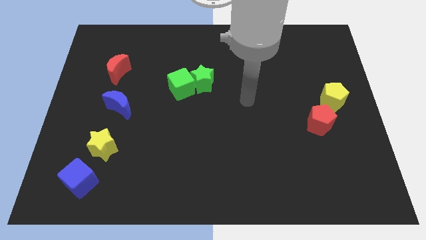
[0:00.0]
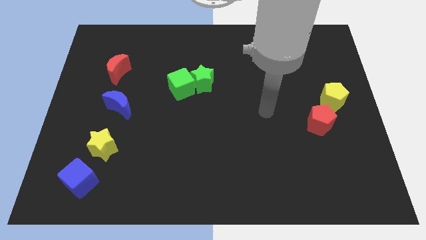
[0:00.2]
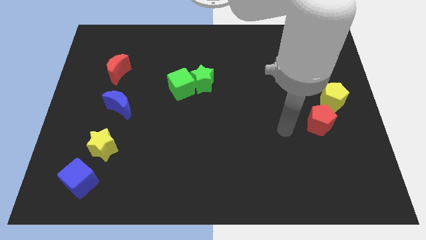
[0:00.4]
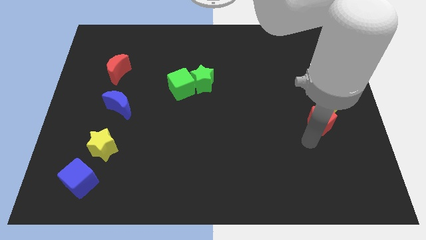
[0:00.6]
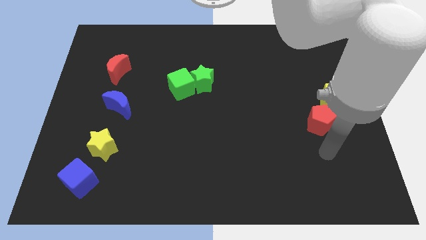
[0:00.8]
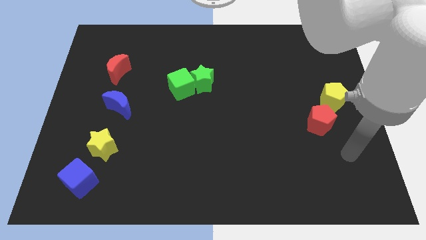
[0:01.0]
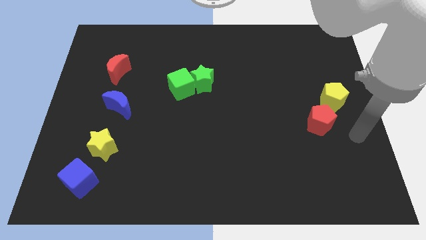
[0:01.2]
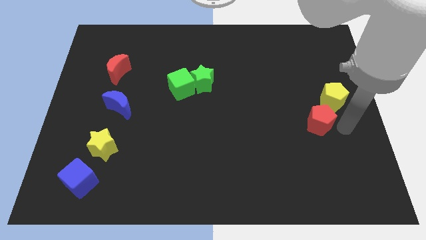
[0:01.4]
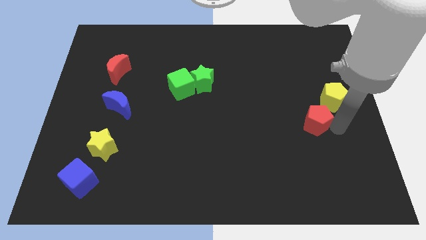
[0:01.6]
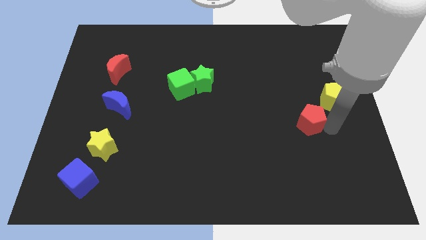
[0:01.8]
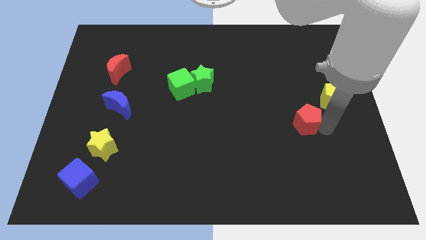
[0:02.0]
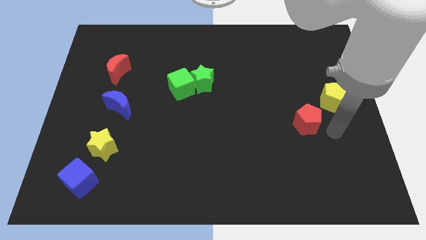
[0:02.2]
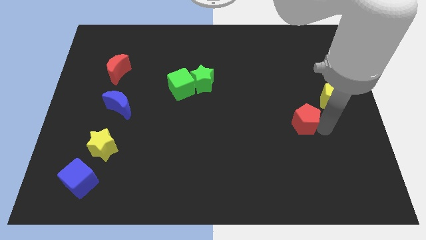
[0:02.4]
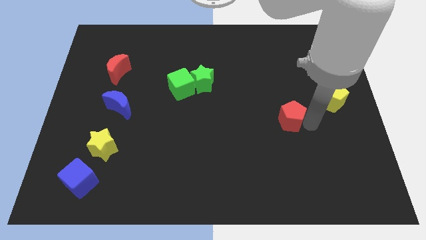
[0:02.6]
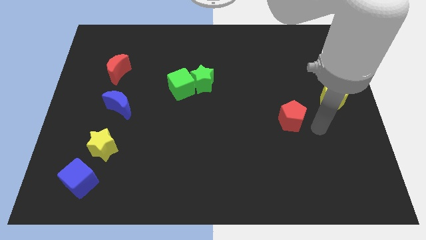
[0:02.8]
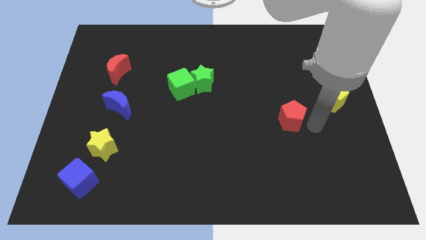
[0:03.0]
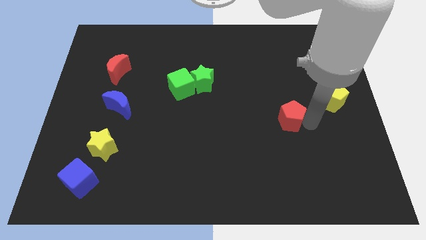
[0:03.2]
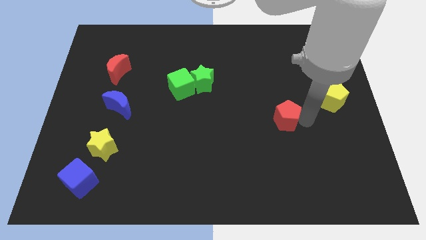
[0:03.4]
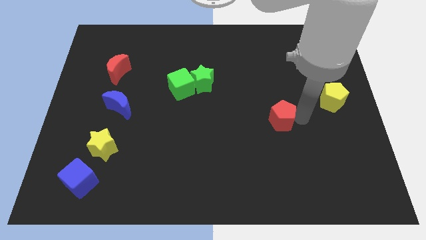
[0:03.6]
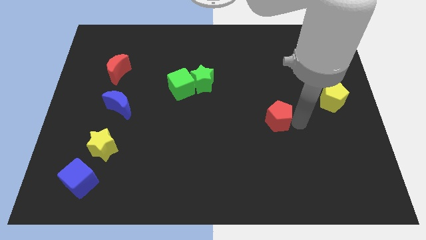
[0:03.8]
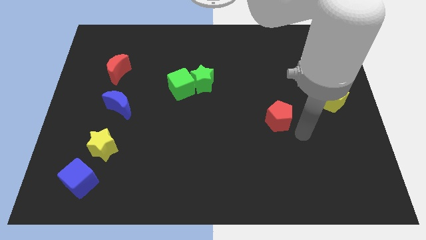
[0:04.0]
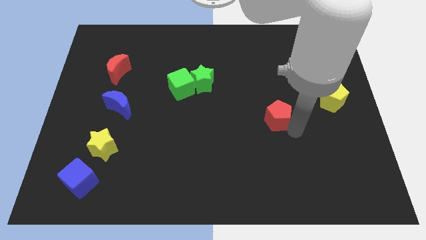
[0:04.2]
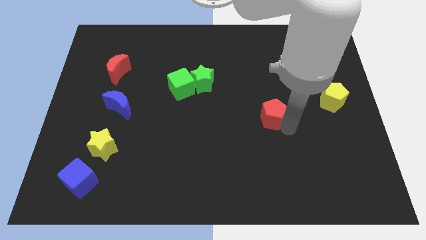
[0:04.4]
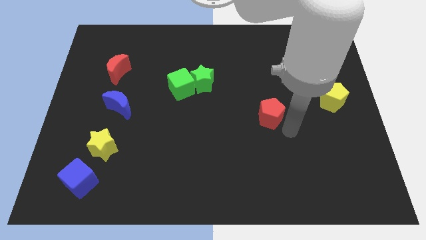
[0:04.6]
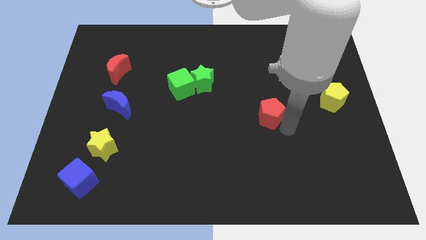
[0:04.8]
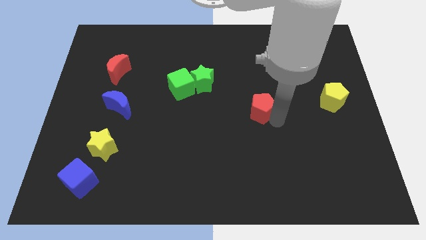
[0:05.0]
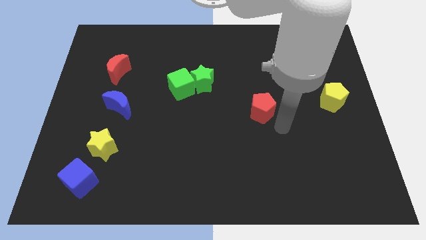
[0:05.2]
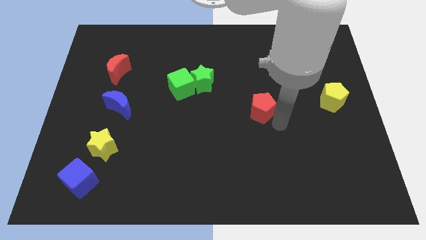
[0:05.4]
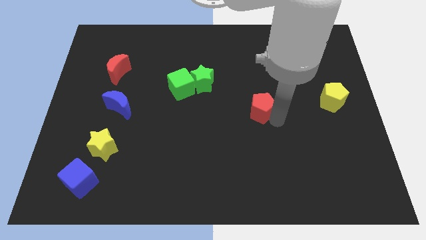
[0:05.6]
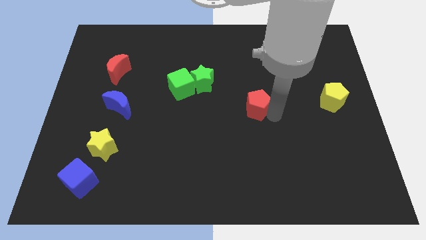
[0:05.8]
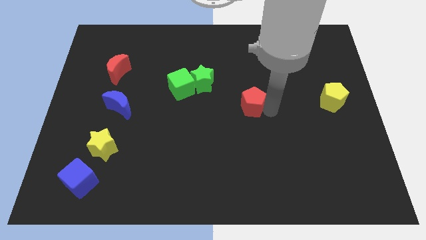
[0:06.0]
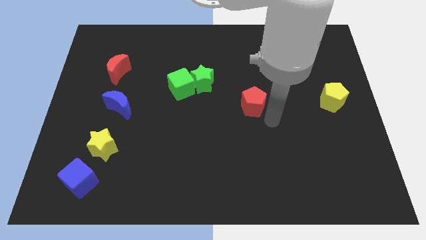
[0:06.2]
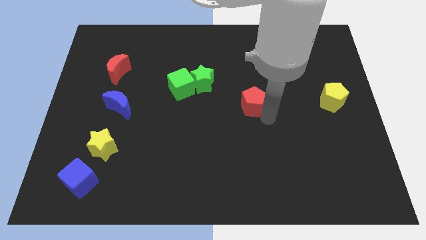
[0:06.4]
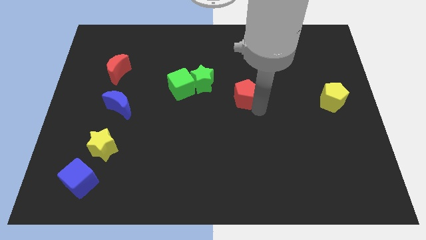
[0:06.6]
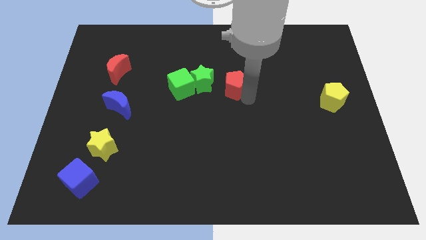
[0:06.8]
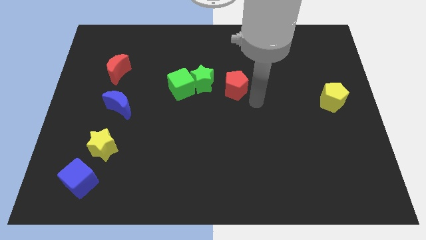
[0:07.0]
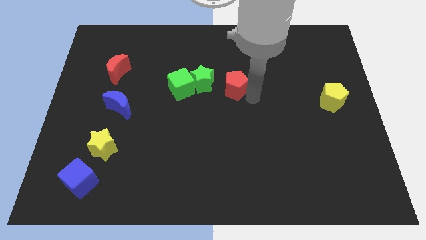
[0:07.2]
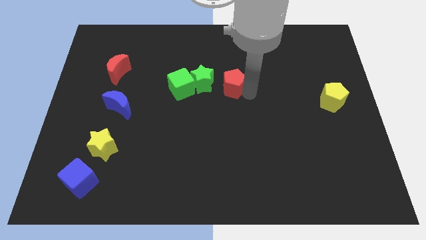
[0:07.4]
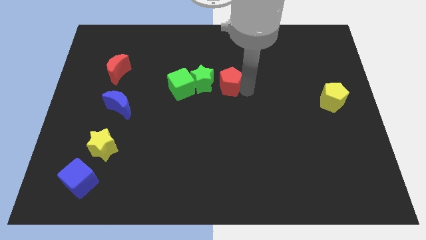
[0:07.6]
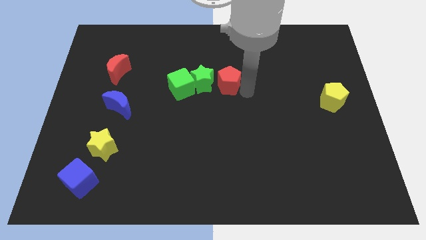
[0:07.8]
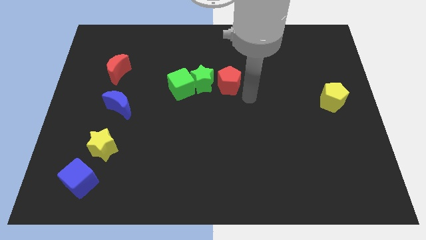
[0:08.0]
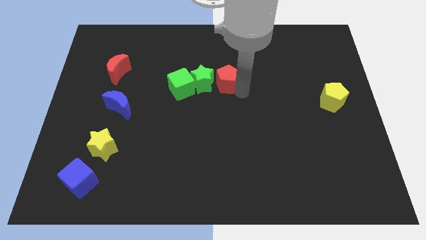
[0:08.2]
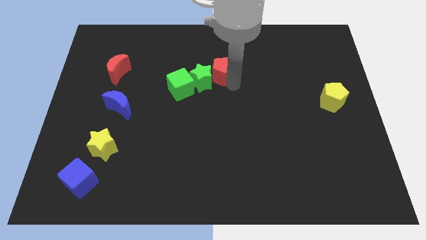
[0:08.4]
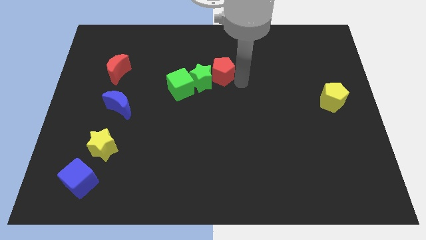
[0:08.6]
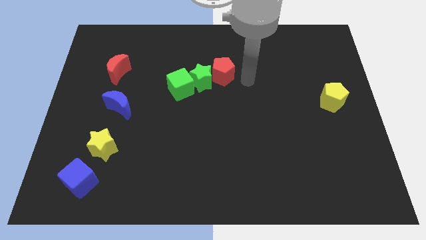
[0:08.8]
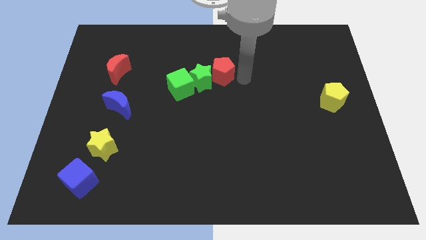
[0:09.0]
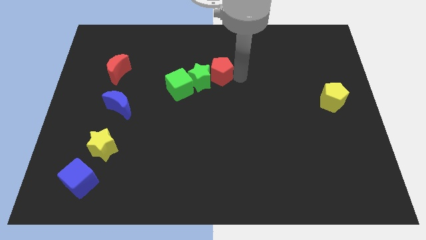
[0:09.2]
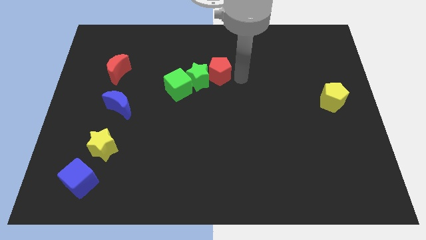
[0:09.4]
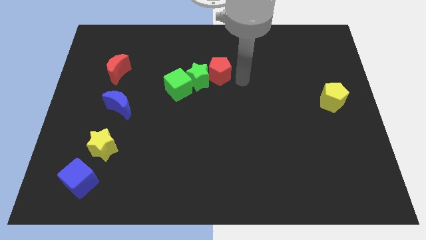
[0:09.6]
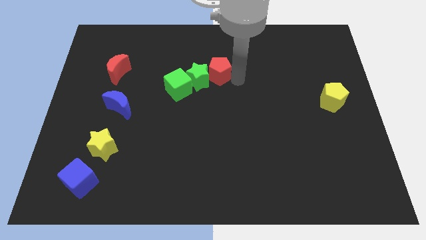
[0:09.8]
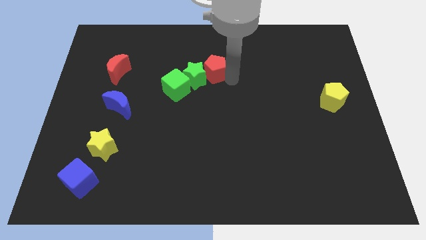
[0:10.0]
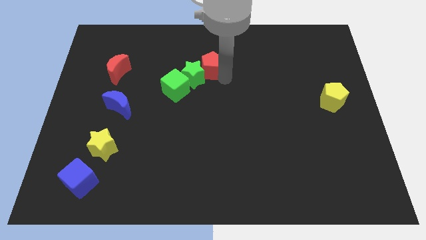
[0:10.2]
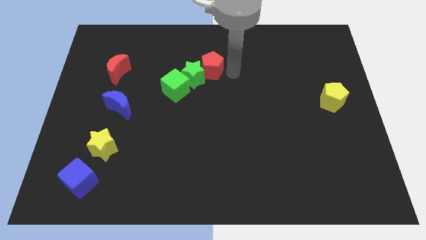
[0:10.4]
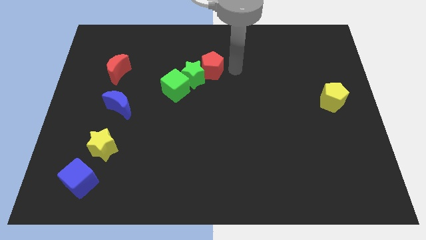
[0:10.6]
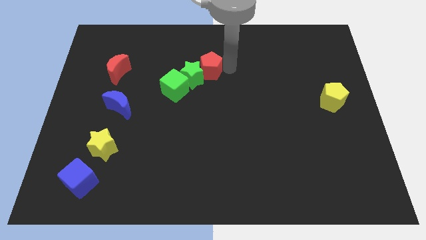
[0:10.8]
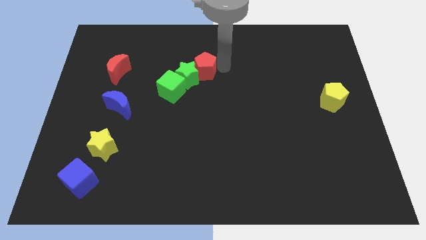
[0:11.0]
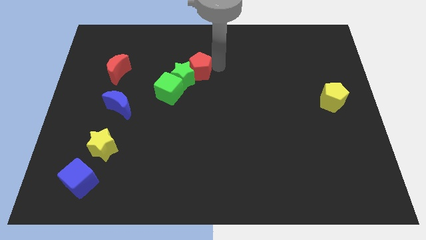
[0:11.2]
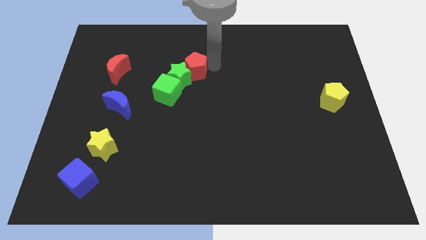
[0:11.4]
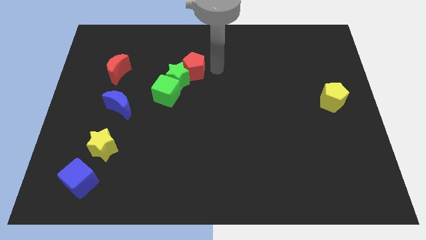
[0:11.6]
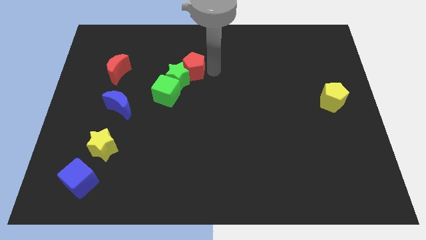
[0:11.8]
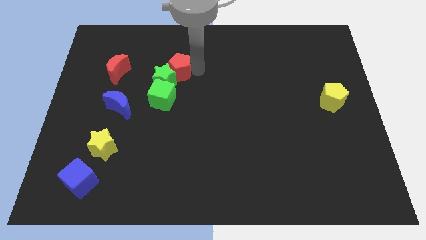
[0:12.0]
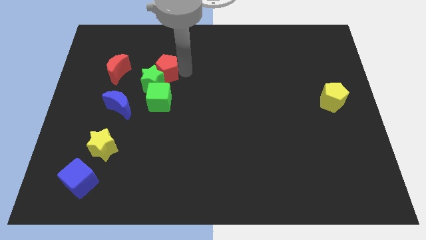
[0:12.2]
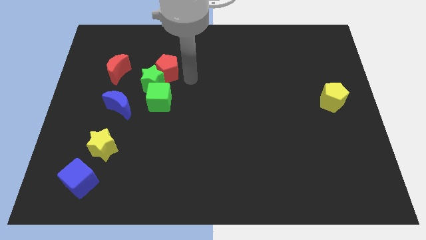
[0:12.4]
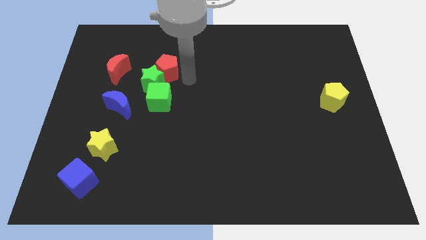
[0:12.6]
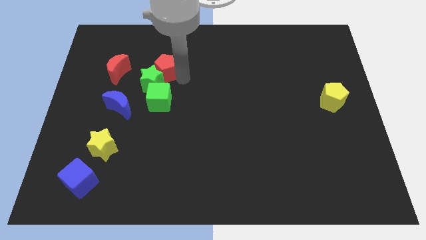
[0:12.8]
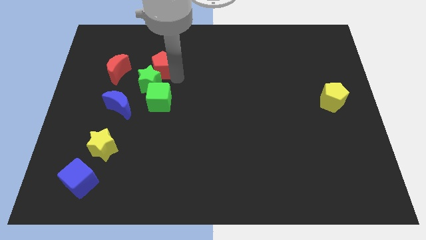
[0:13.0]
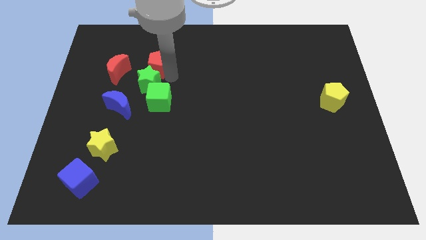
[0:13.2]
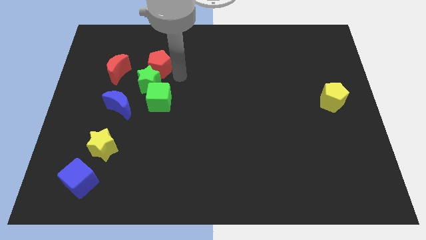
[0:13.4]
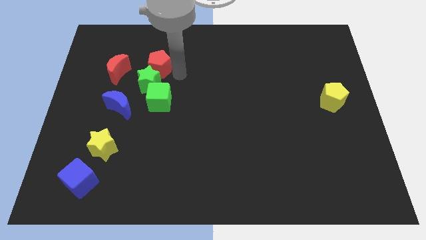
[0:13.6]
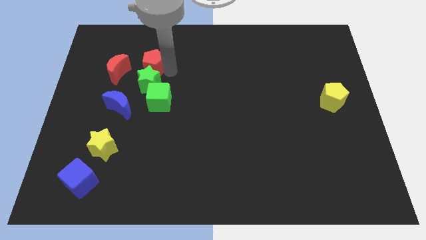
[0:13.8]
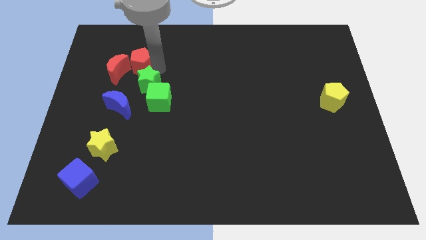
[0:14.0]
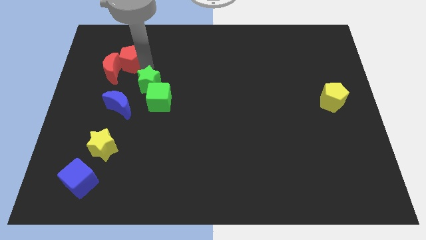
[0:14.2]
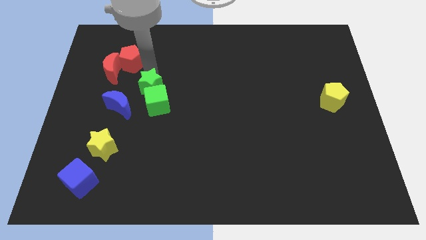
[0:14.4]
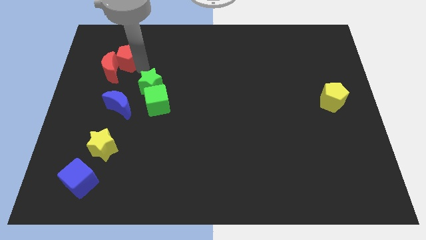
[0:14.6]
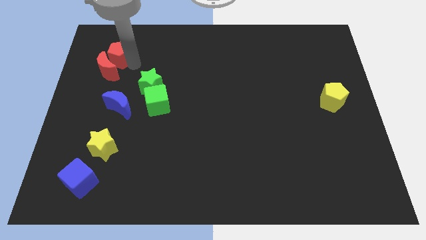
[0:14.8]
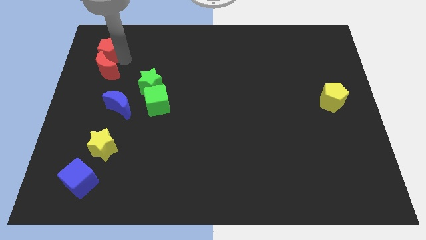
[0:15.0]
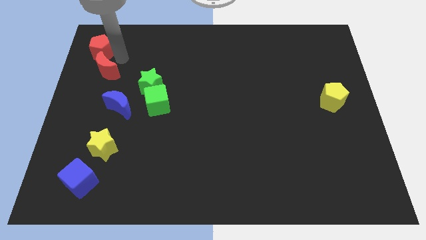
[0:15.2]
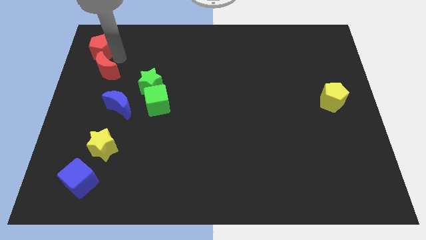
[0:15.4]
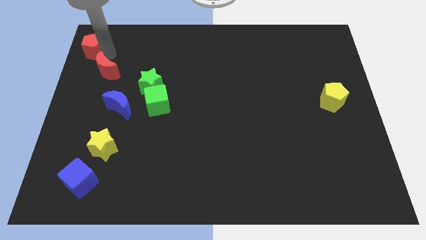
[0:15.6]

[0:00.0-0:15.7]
slide the red pentagon to the upper left corner
